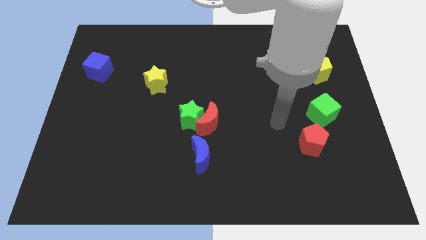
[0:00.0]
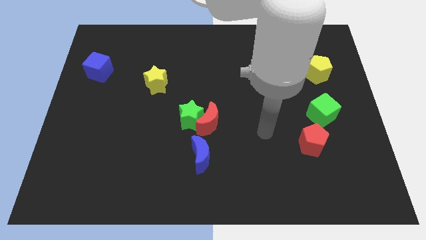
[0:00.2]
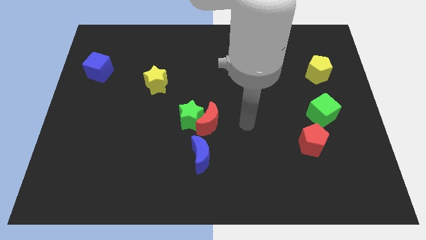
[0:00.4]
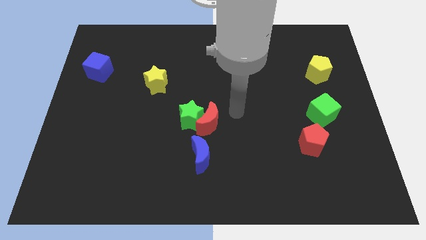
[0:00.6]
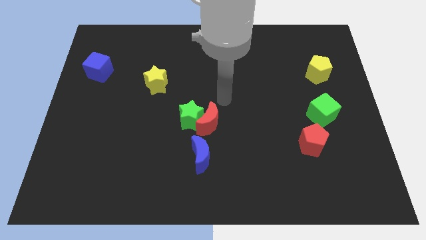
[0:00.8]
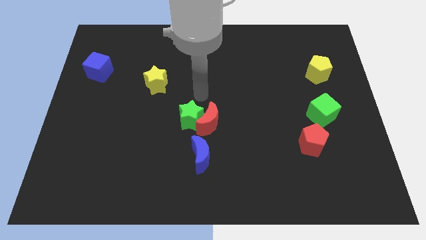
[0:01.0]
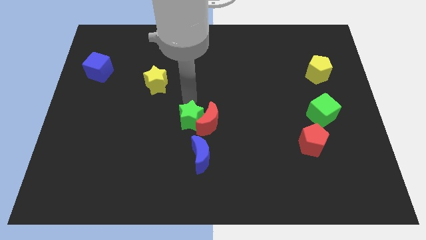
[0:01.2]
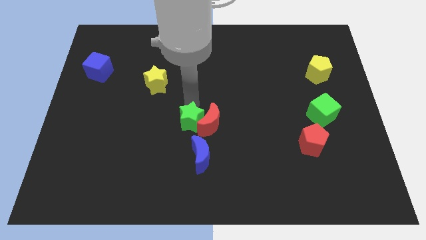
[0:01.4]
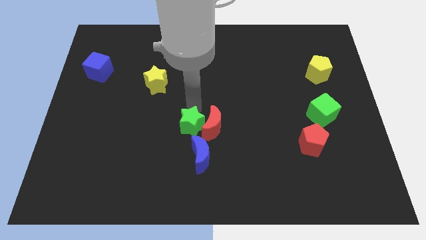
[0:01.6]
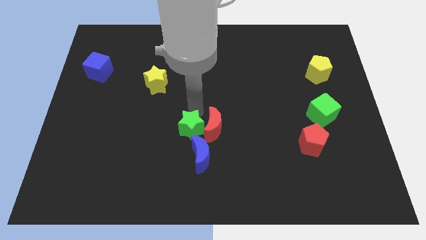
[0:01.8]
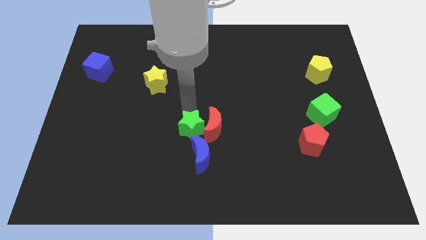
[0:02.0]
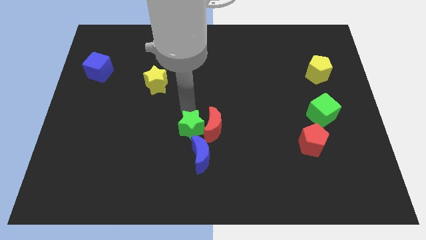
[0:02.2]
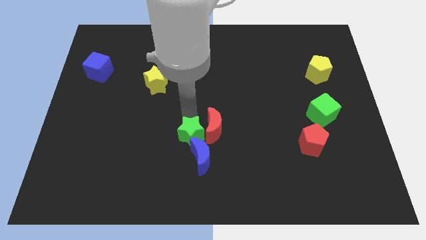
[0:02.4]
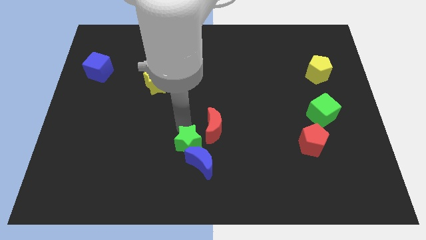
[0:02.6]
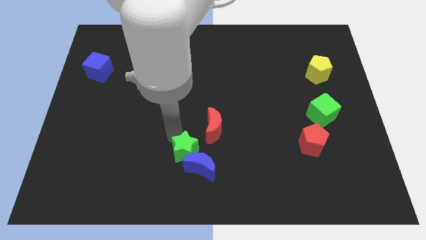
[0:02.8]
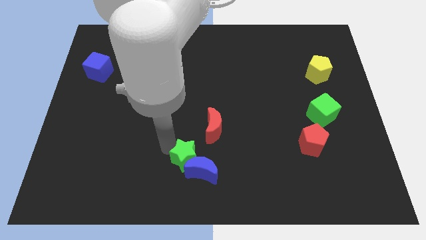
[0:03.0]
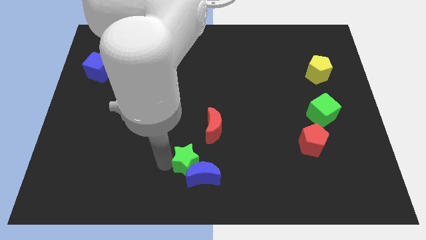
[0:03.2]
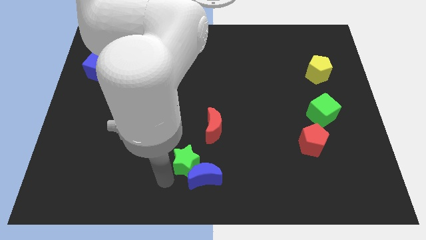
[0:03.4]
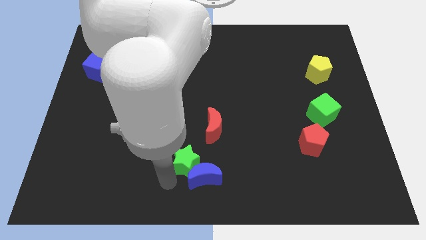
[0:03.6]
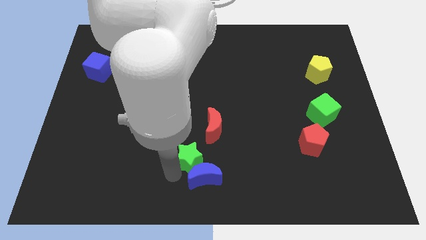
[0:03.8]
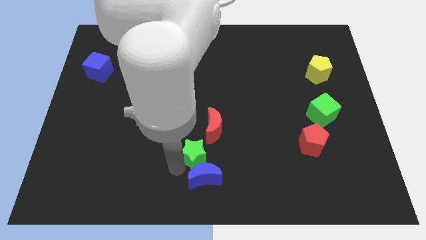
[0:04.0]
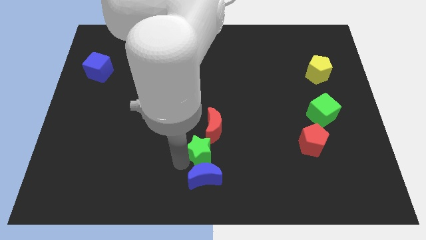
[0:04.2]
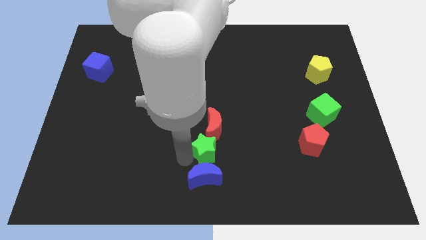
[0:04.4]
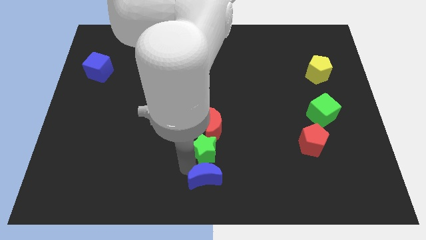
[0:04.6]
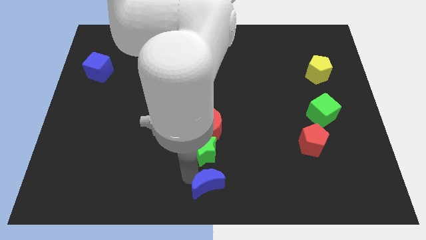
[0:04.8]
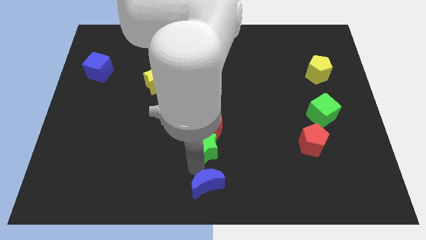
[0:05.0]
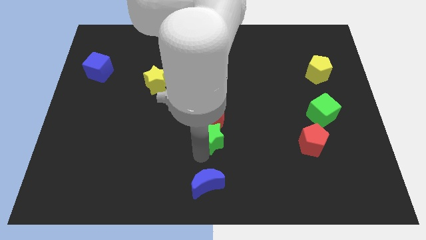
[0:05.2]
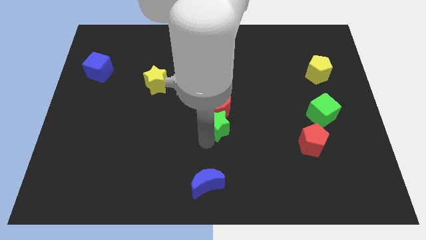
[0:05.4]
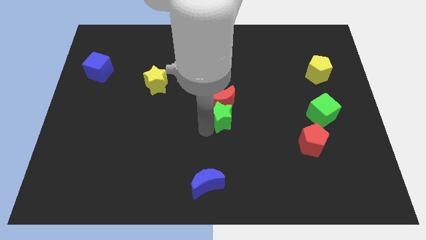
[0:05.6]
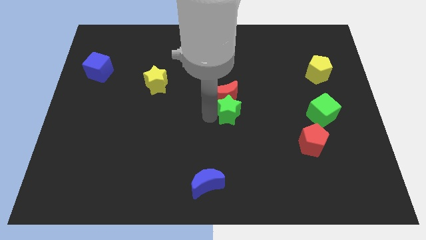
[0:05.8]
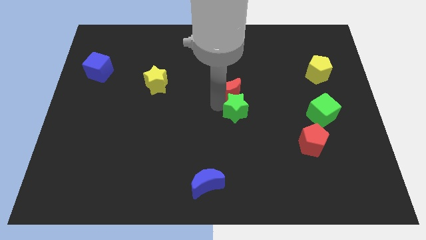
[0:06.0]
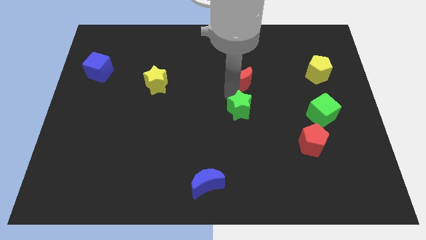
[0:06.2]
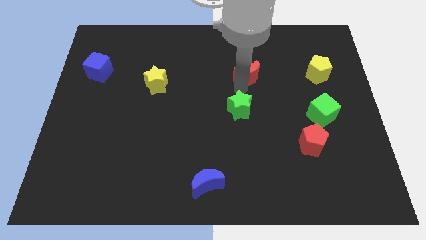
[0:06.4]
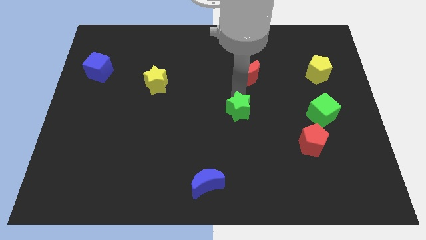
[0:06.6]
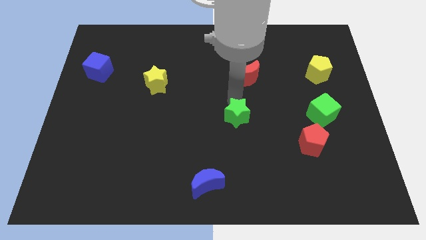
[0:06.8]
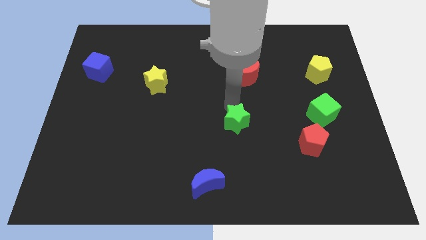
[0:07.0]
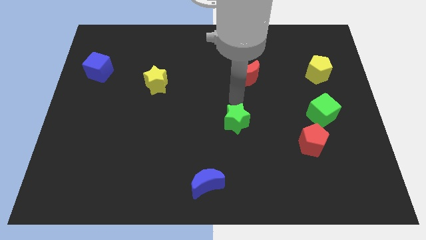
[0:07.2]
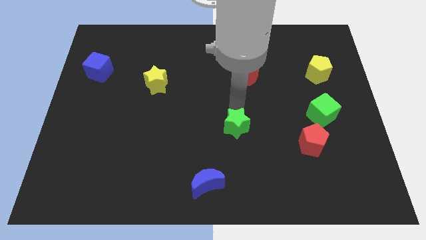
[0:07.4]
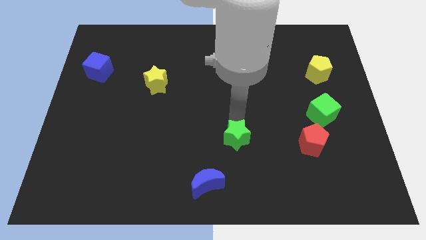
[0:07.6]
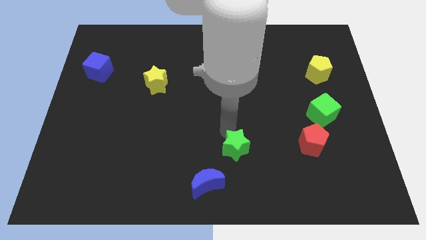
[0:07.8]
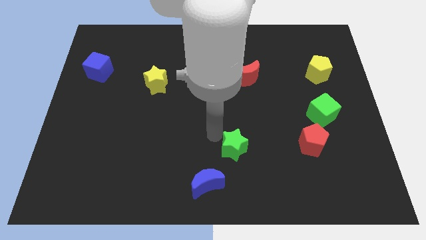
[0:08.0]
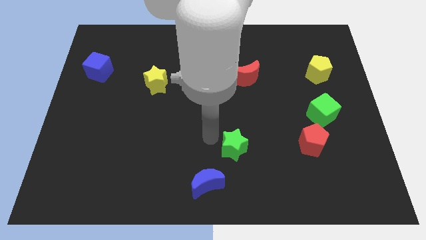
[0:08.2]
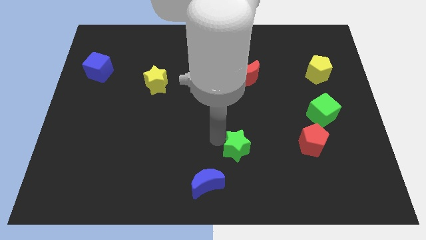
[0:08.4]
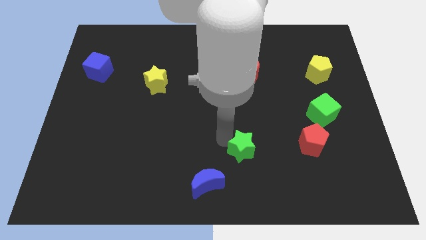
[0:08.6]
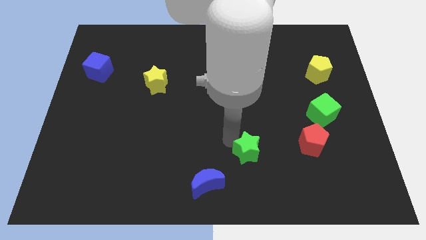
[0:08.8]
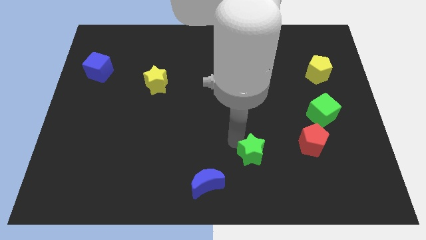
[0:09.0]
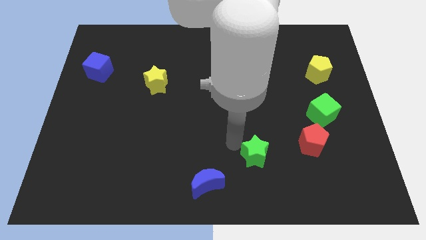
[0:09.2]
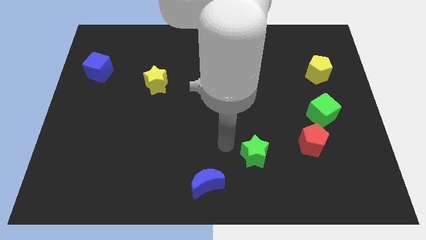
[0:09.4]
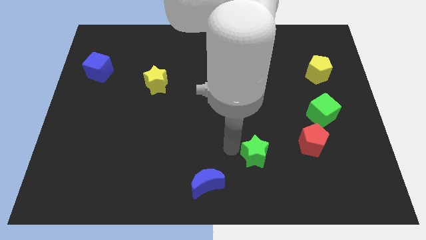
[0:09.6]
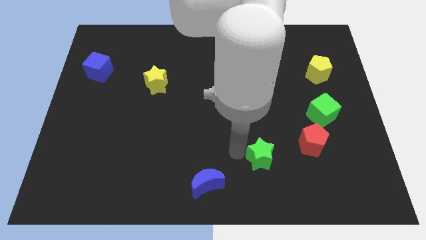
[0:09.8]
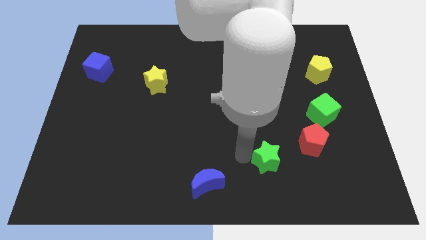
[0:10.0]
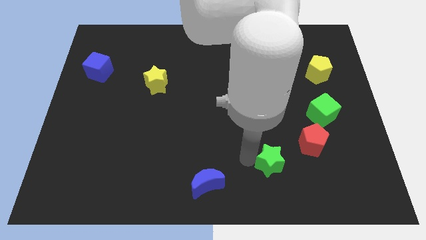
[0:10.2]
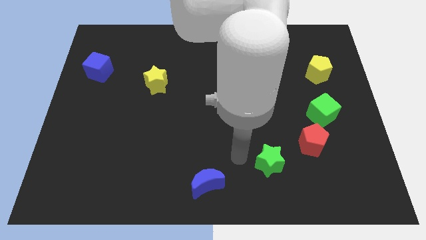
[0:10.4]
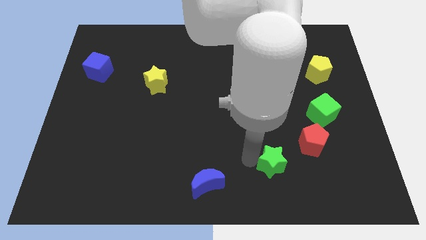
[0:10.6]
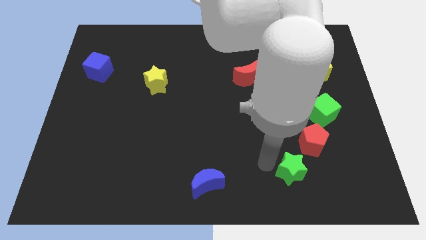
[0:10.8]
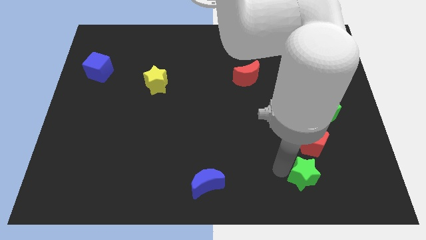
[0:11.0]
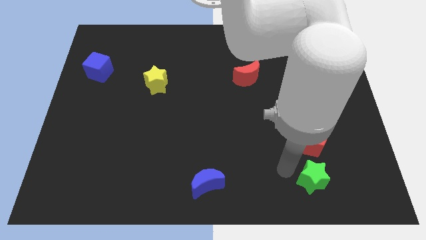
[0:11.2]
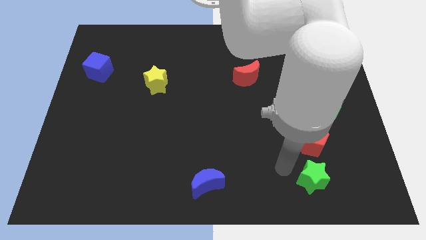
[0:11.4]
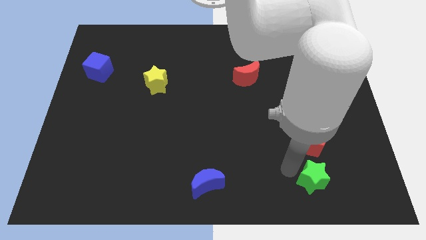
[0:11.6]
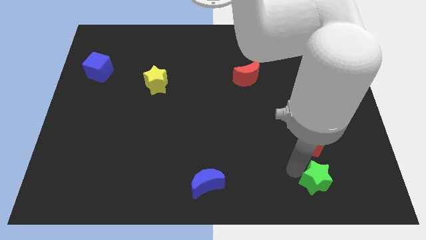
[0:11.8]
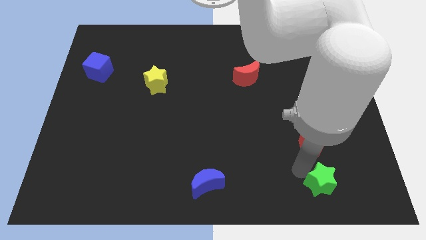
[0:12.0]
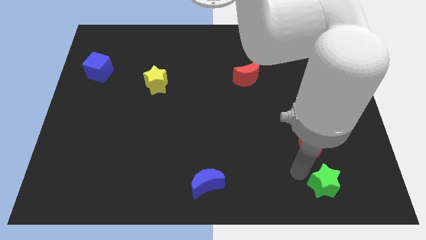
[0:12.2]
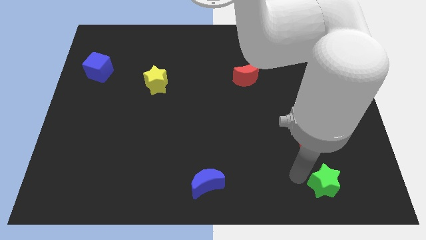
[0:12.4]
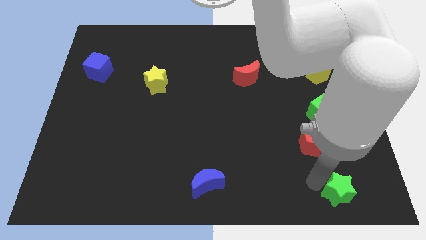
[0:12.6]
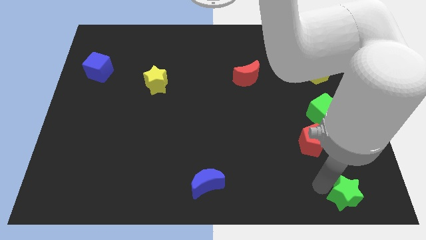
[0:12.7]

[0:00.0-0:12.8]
move the green star to the bottom right
